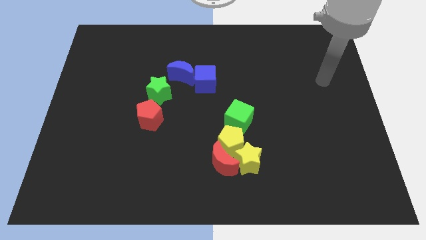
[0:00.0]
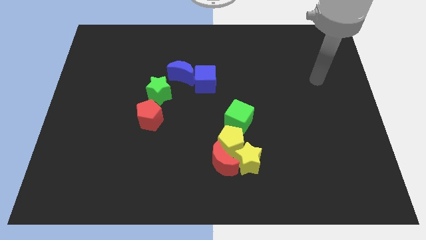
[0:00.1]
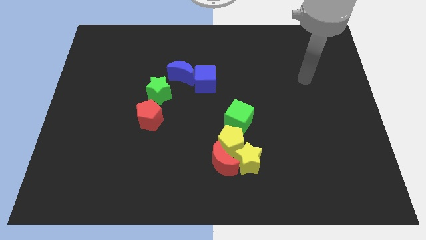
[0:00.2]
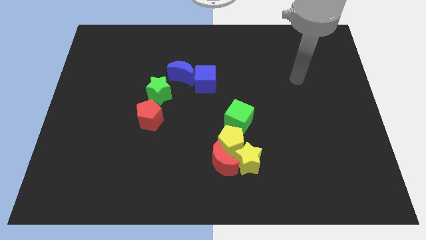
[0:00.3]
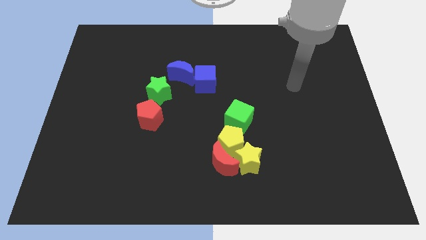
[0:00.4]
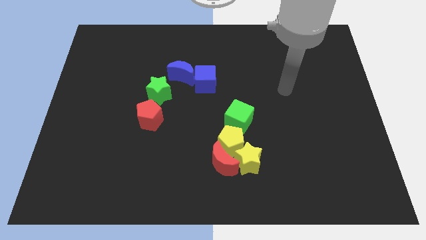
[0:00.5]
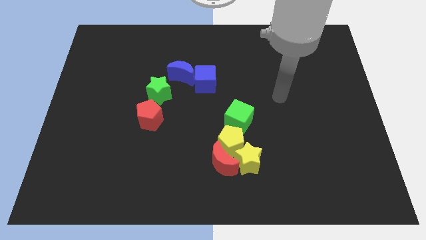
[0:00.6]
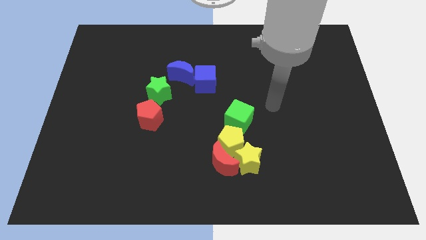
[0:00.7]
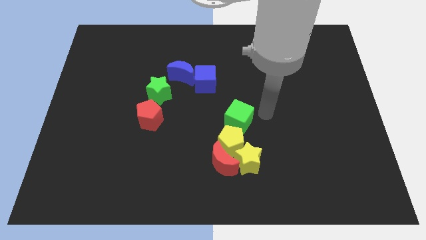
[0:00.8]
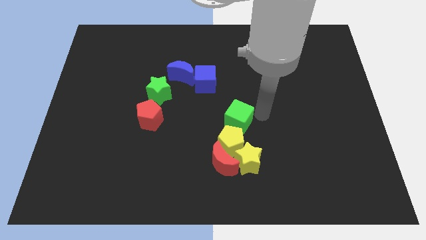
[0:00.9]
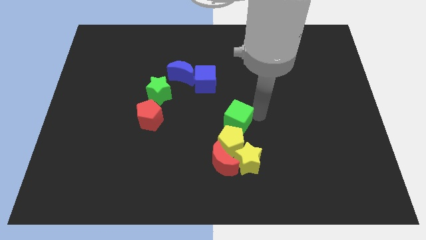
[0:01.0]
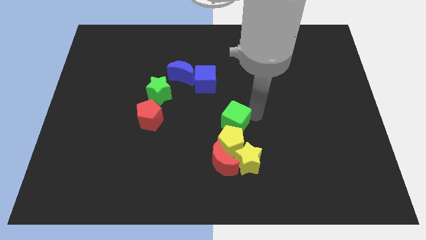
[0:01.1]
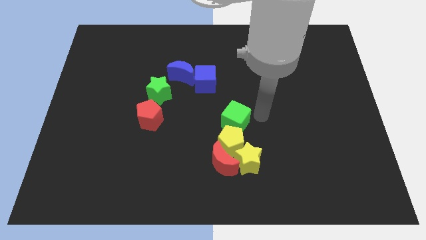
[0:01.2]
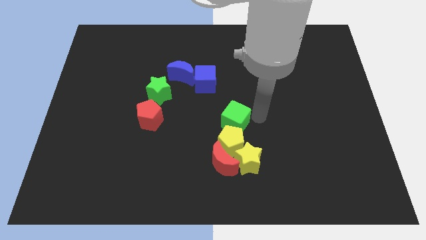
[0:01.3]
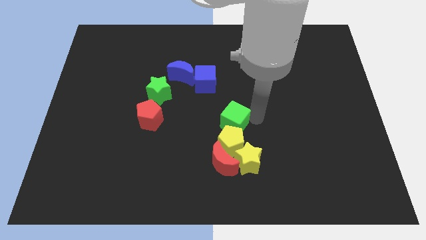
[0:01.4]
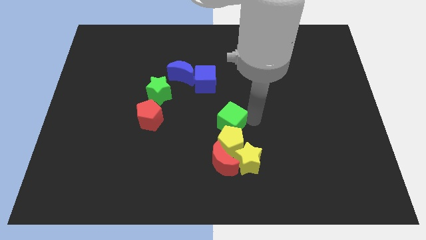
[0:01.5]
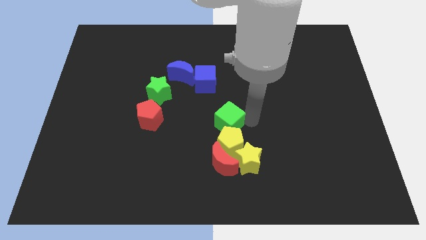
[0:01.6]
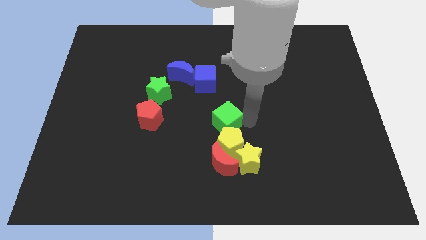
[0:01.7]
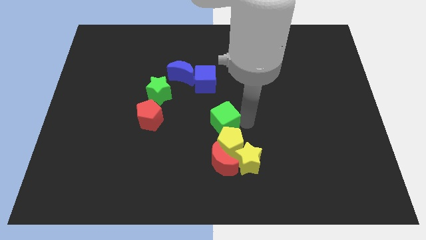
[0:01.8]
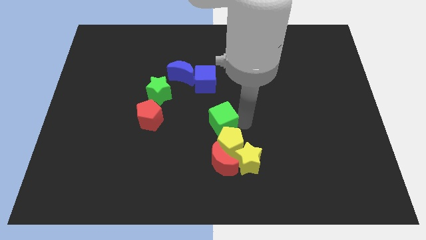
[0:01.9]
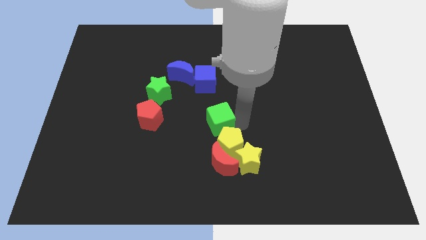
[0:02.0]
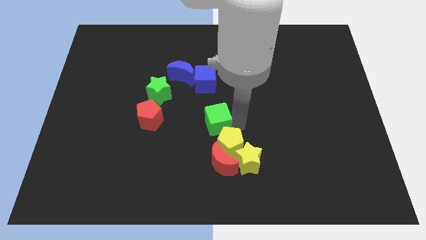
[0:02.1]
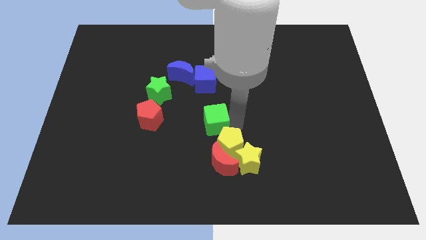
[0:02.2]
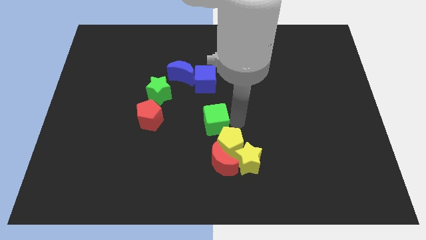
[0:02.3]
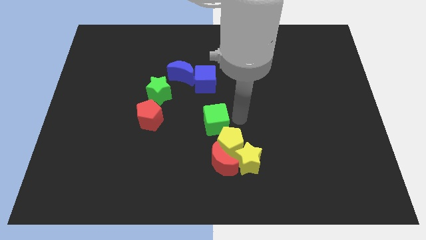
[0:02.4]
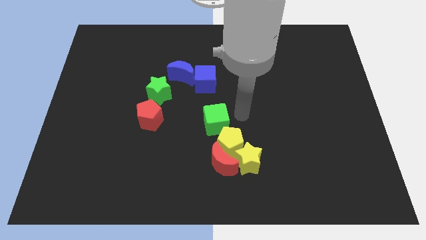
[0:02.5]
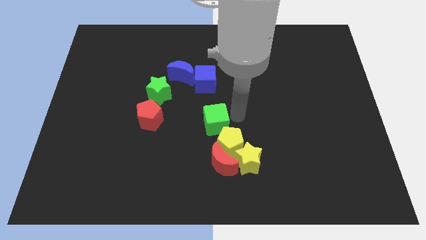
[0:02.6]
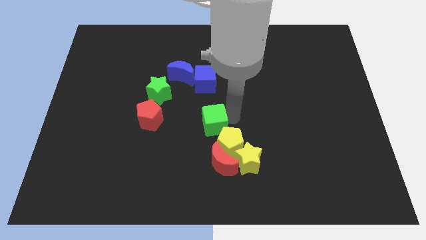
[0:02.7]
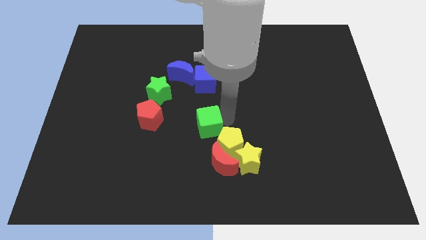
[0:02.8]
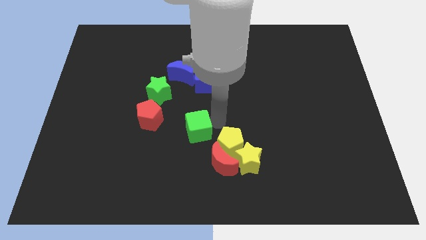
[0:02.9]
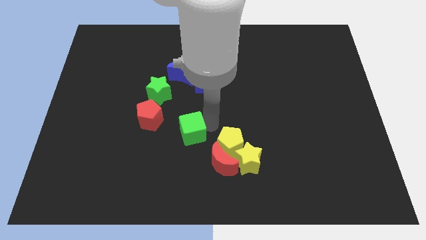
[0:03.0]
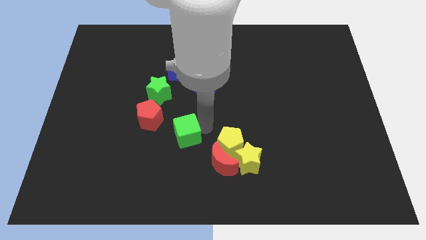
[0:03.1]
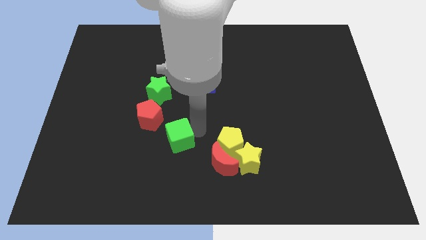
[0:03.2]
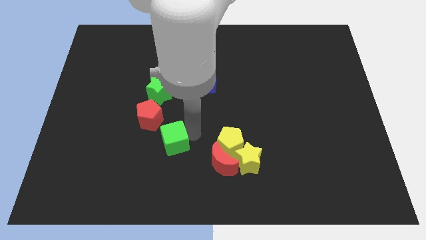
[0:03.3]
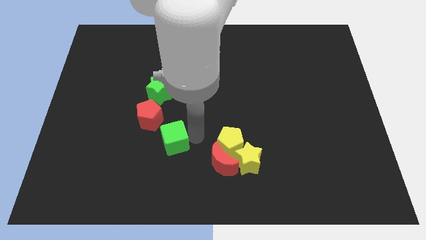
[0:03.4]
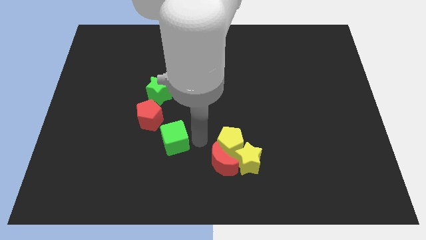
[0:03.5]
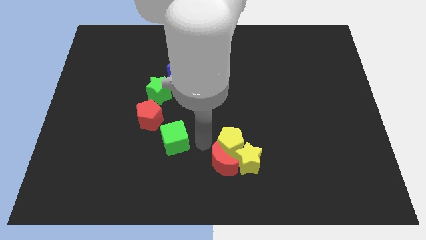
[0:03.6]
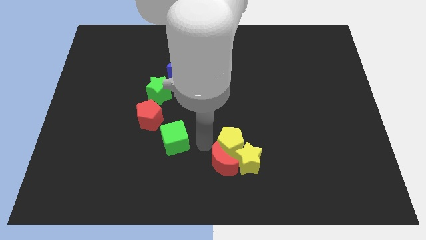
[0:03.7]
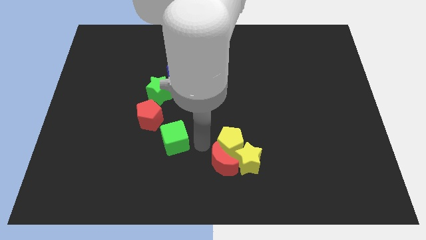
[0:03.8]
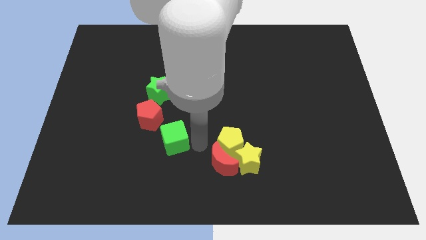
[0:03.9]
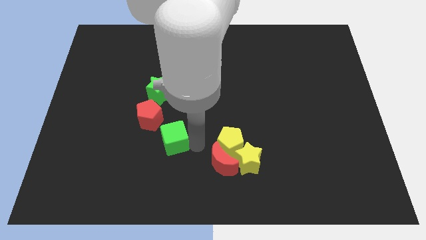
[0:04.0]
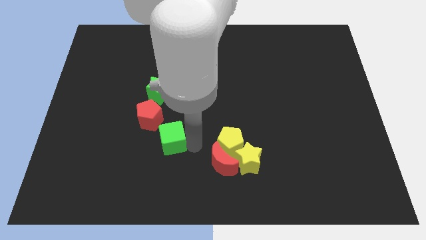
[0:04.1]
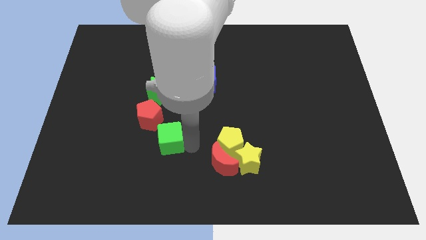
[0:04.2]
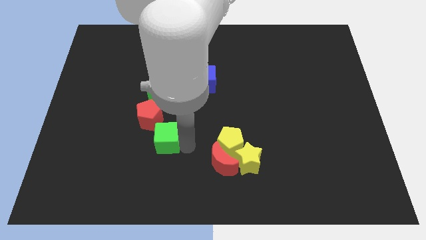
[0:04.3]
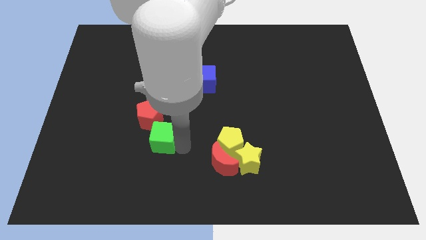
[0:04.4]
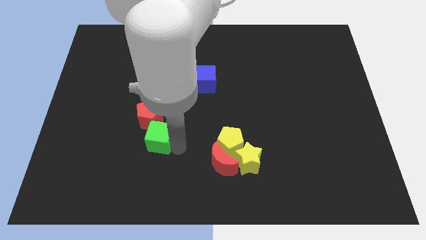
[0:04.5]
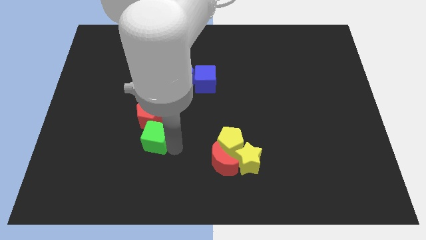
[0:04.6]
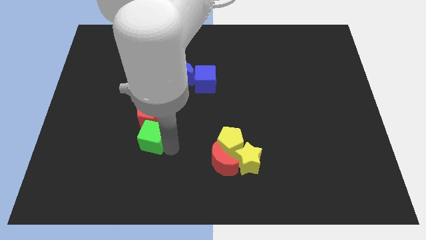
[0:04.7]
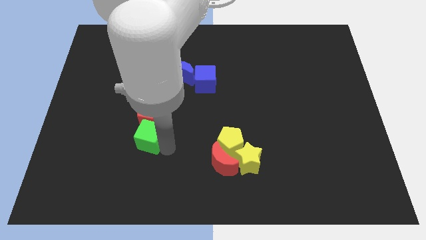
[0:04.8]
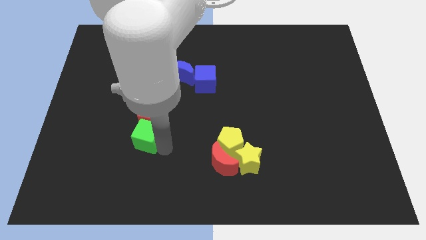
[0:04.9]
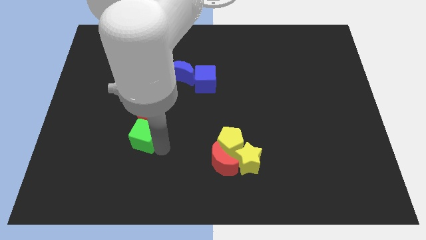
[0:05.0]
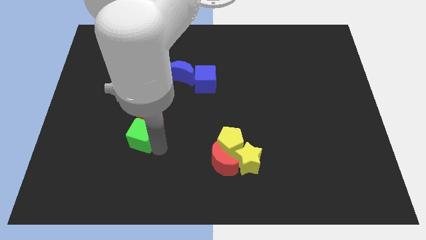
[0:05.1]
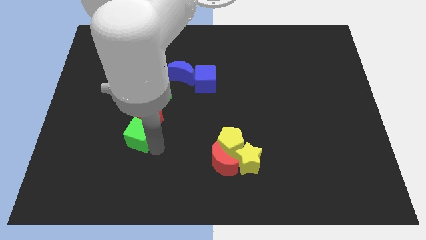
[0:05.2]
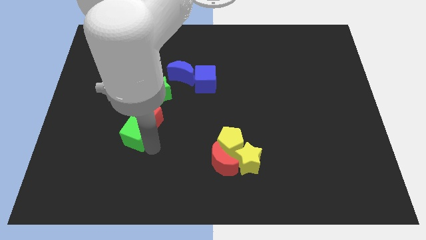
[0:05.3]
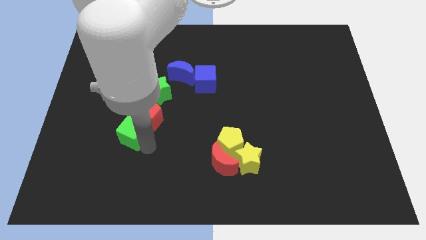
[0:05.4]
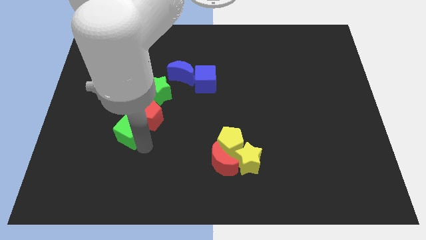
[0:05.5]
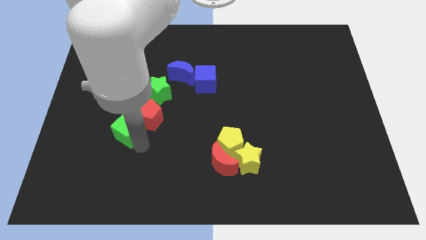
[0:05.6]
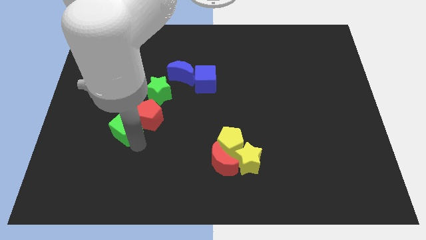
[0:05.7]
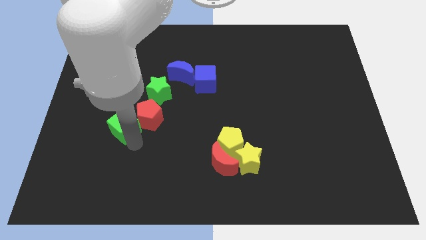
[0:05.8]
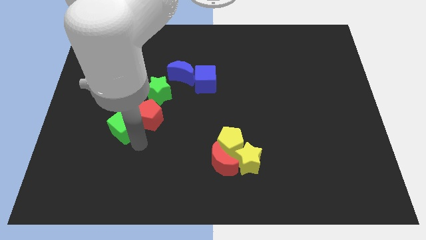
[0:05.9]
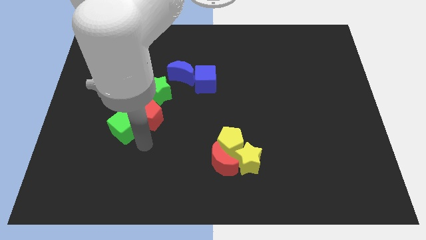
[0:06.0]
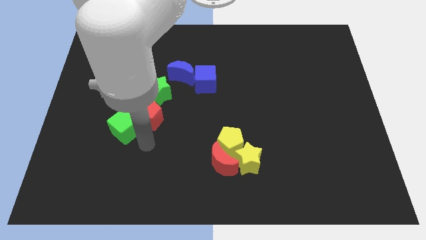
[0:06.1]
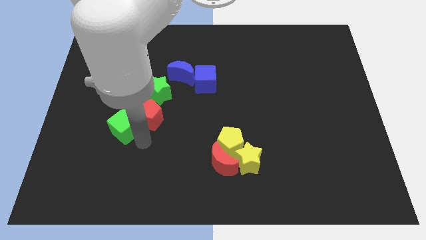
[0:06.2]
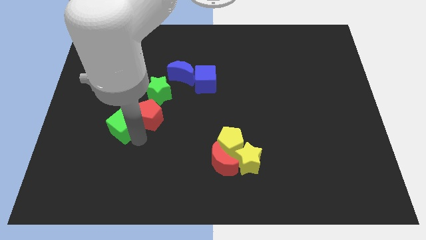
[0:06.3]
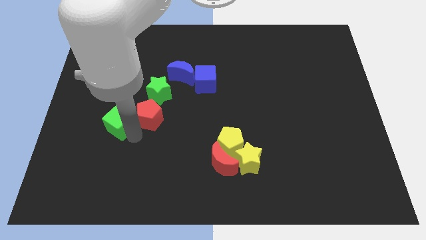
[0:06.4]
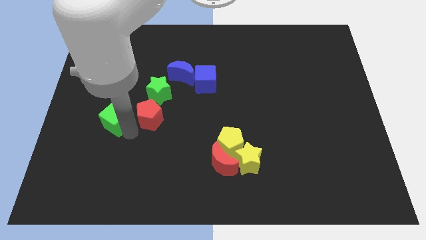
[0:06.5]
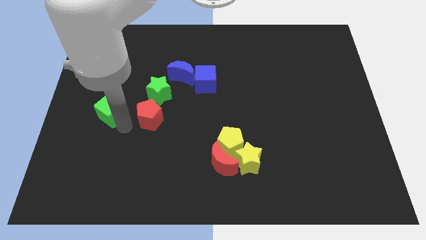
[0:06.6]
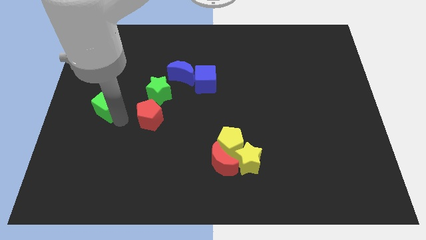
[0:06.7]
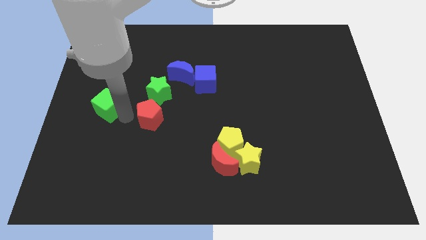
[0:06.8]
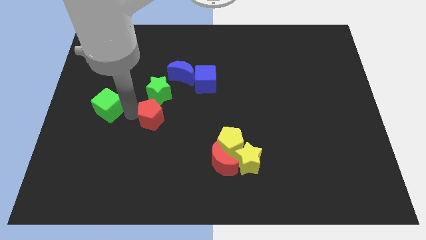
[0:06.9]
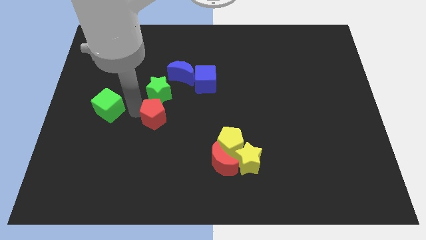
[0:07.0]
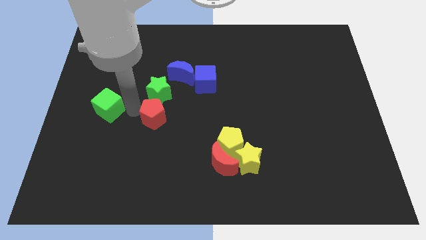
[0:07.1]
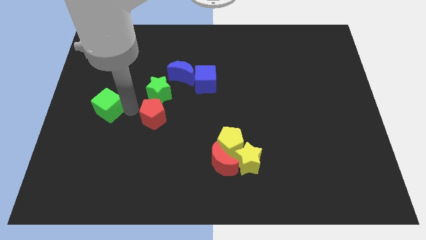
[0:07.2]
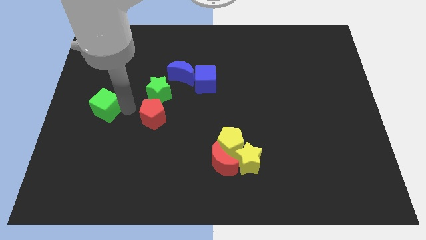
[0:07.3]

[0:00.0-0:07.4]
put the green cube to the left side of the board
